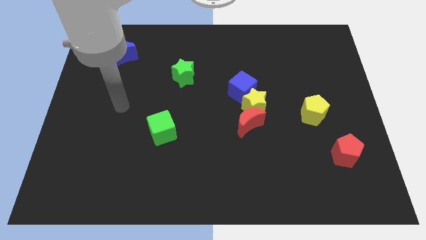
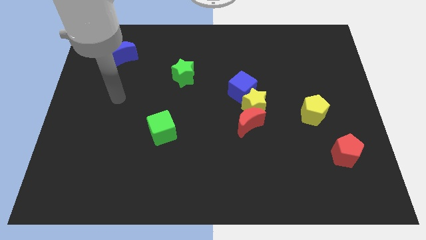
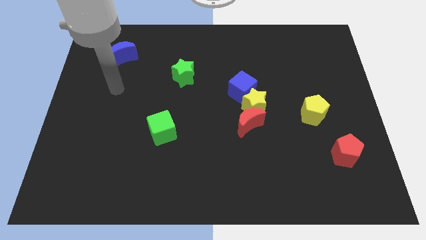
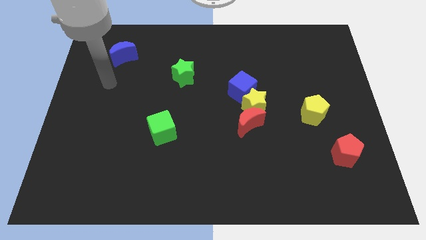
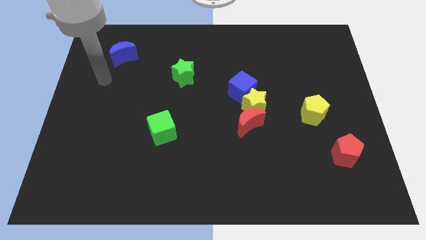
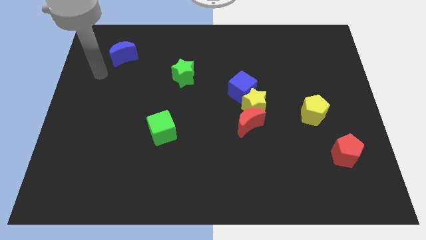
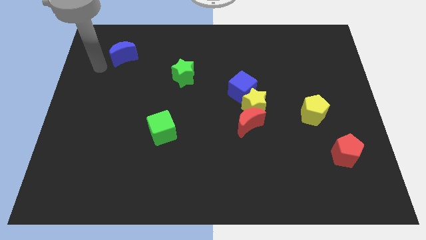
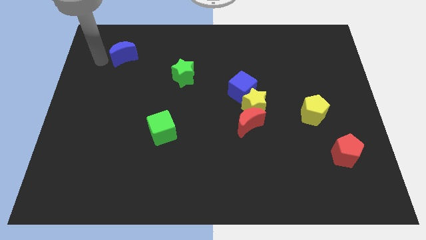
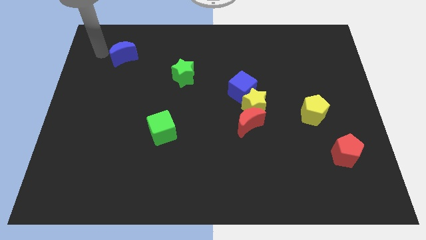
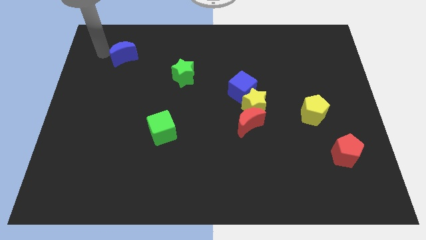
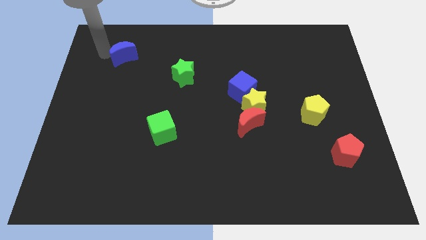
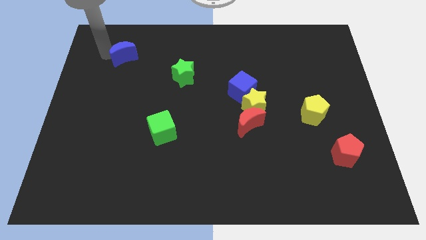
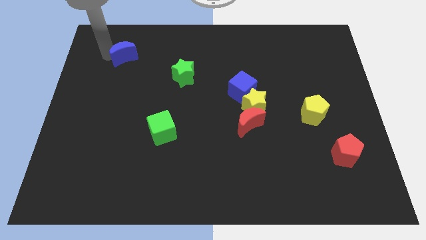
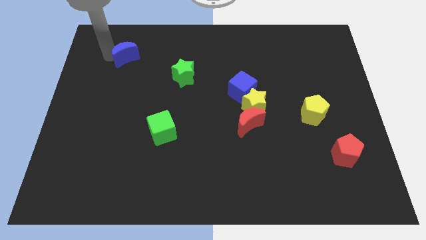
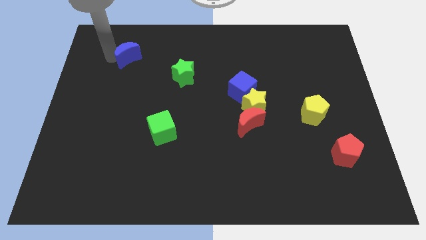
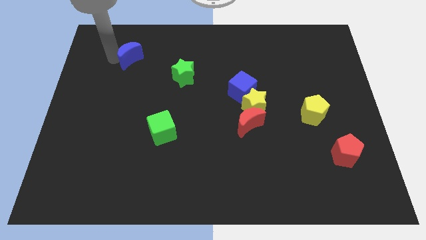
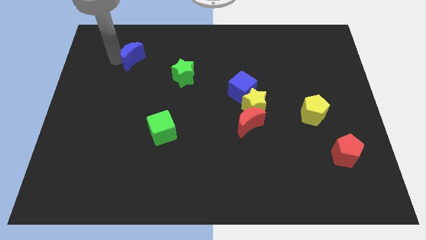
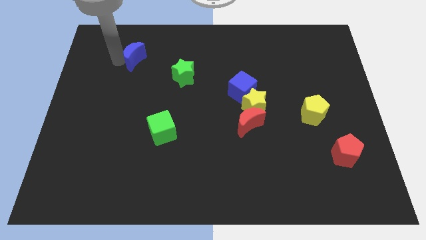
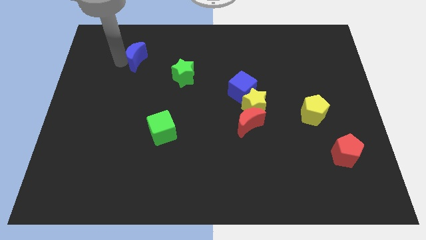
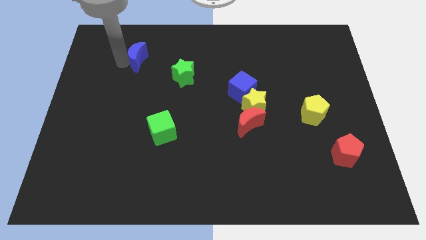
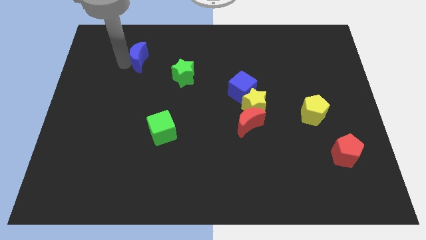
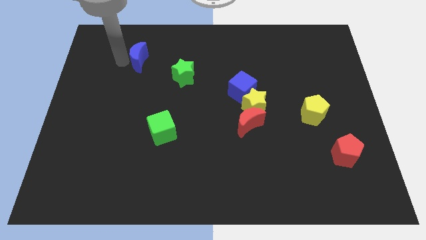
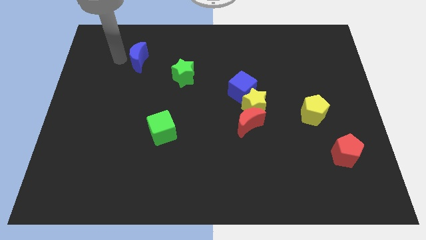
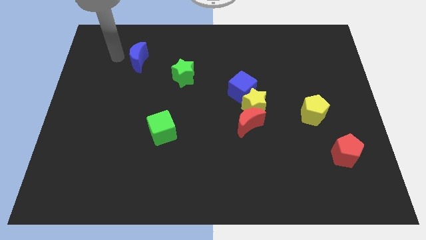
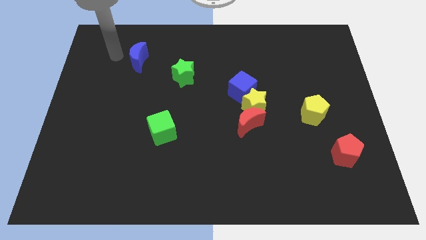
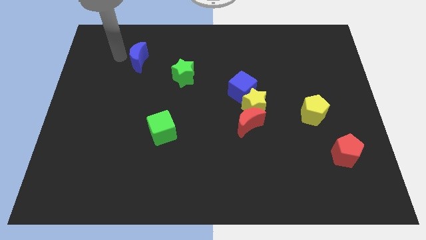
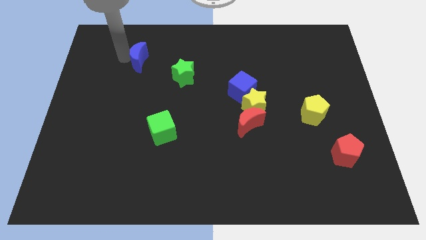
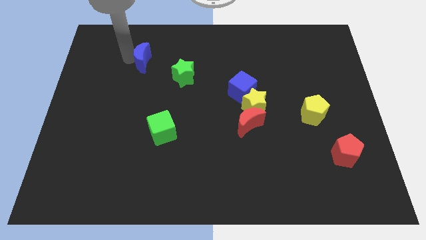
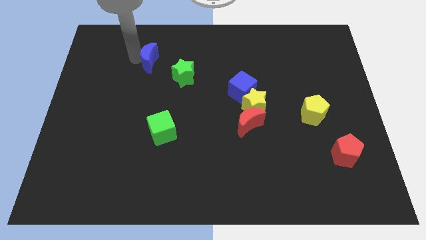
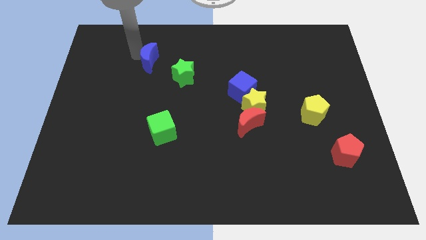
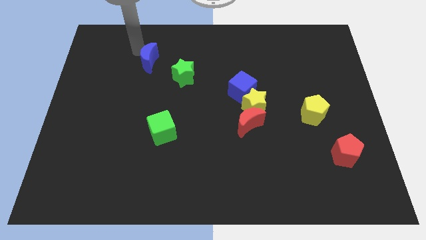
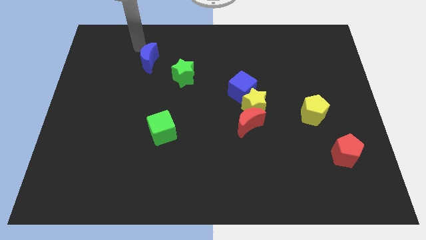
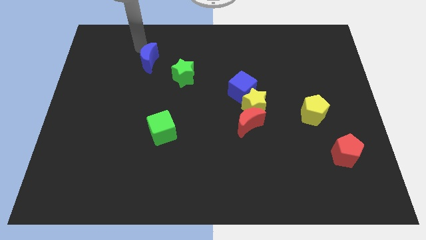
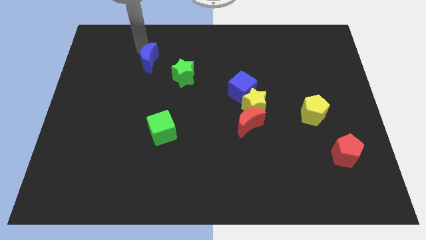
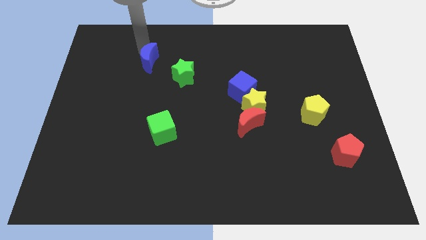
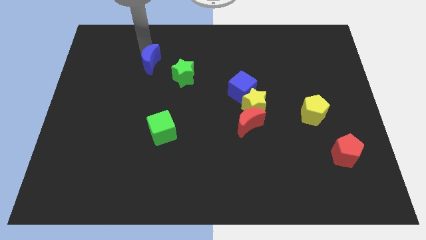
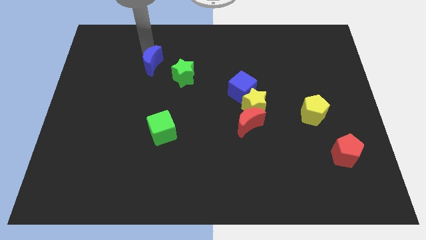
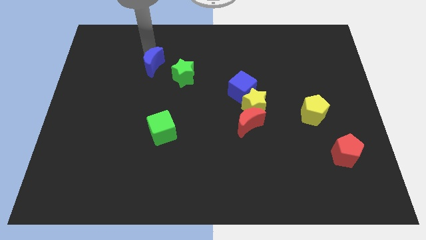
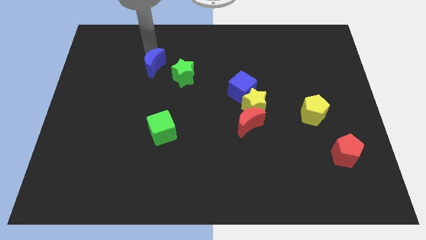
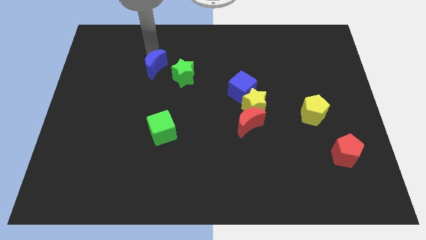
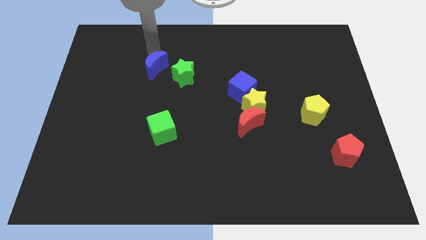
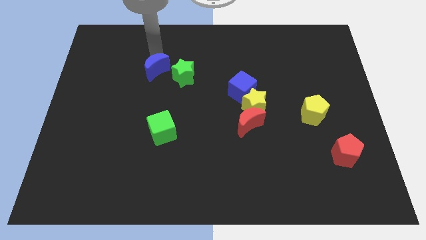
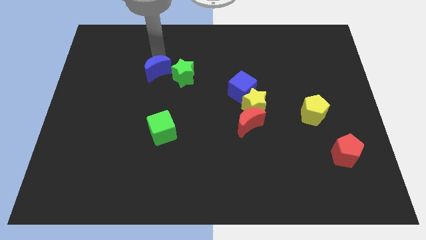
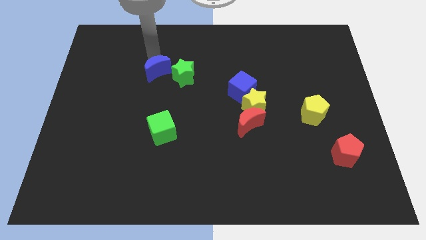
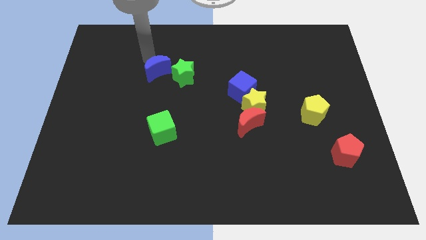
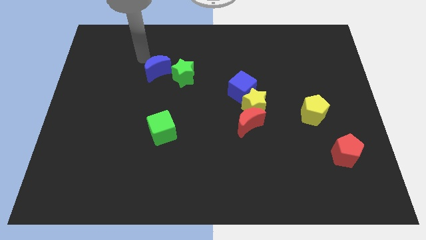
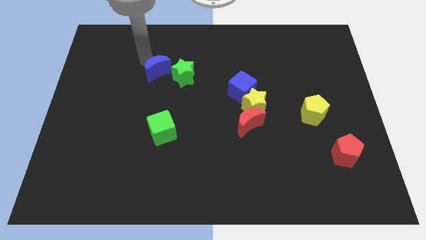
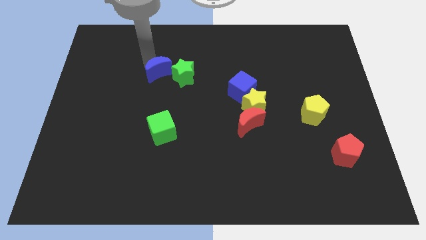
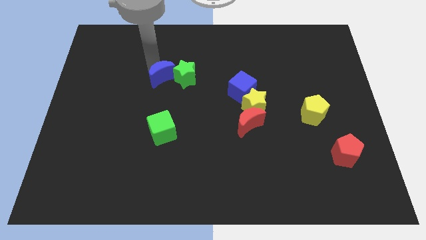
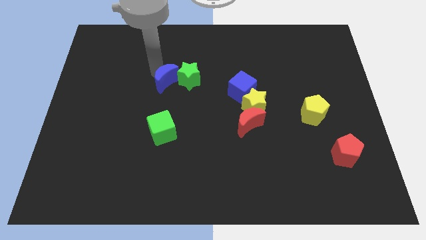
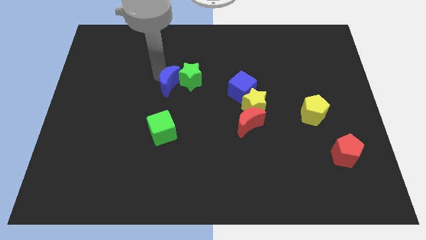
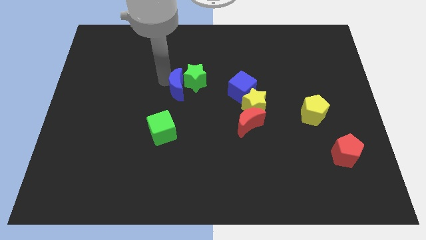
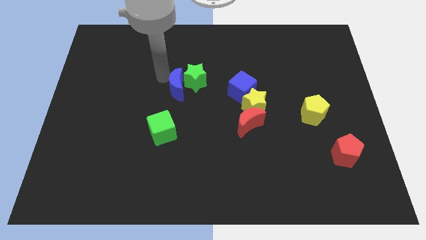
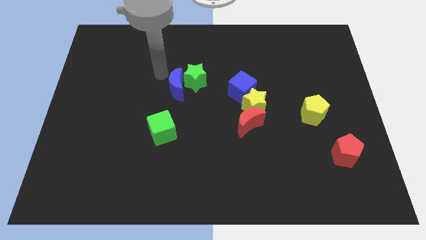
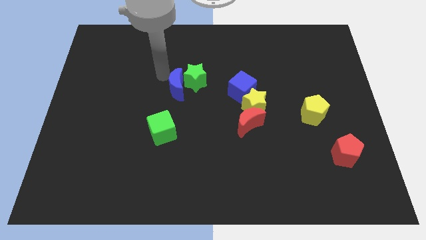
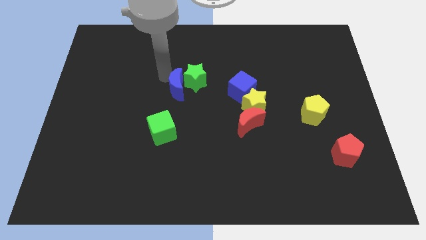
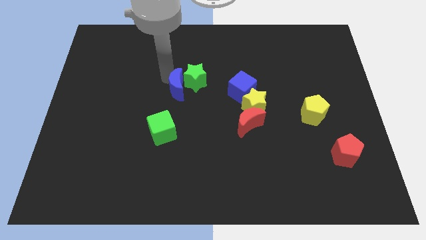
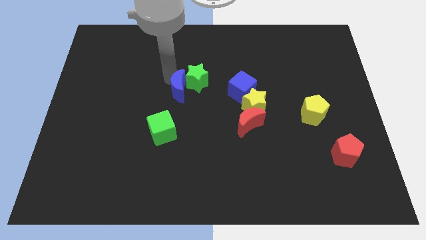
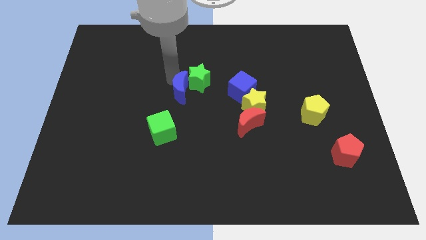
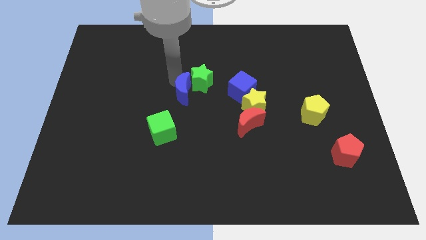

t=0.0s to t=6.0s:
push the blue moon down and to the right

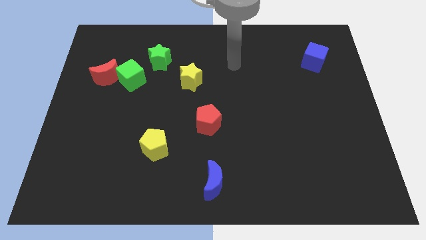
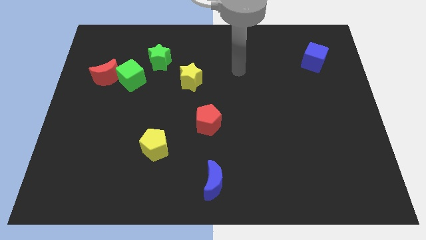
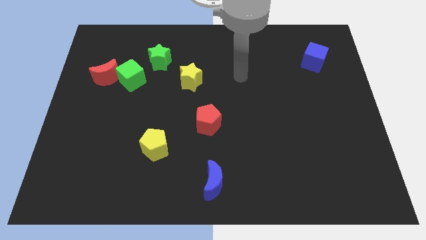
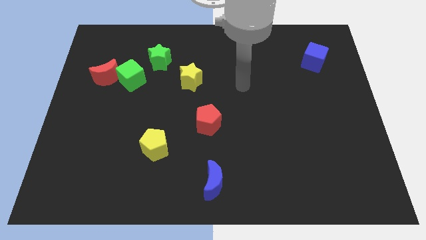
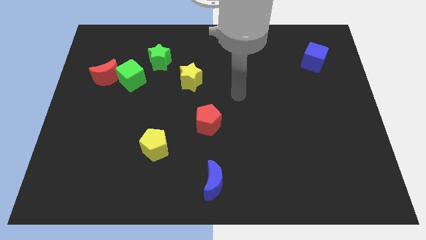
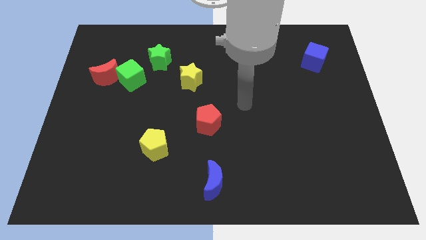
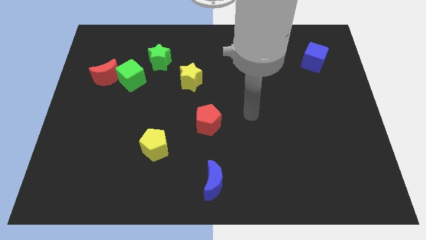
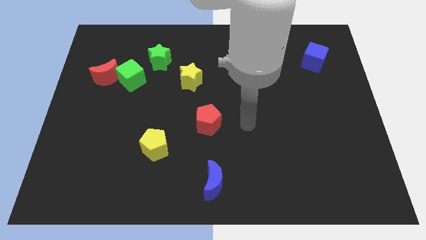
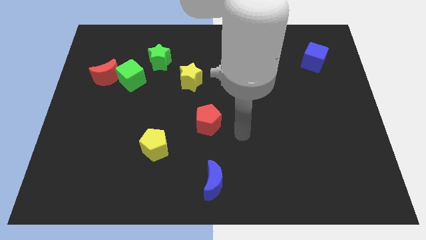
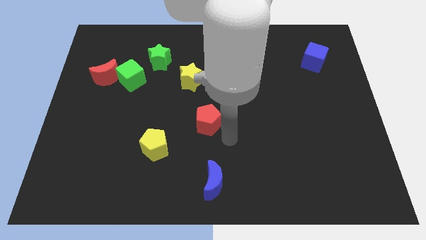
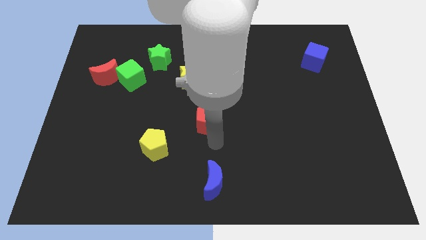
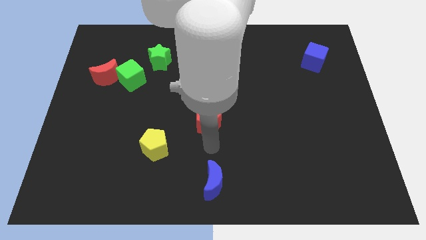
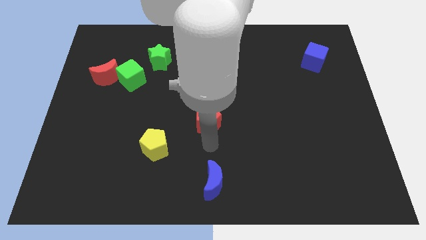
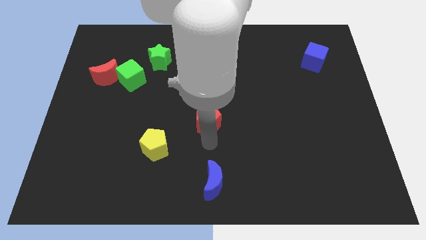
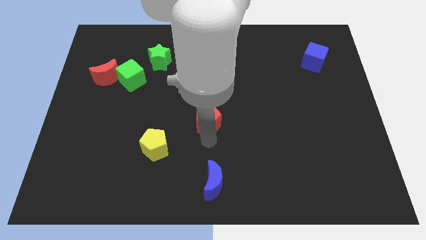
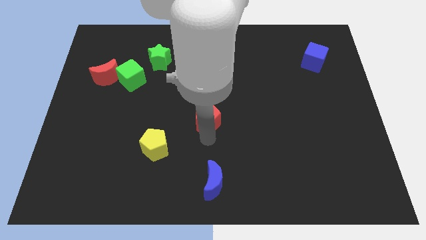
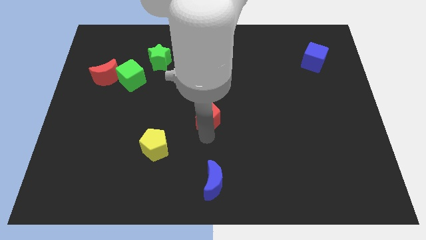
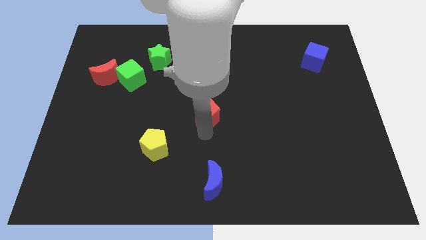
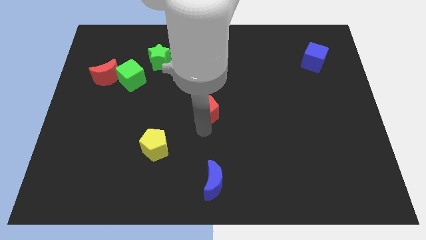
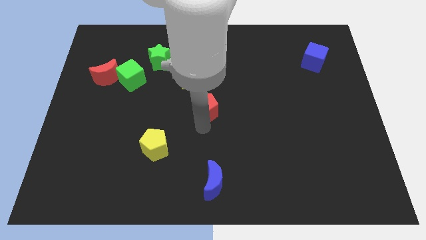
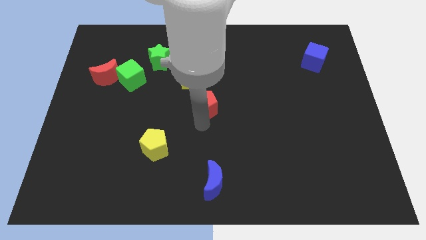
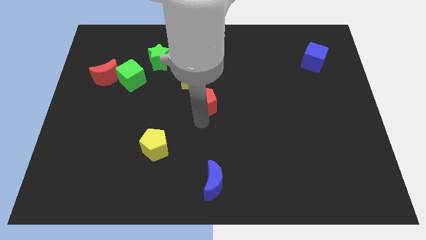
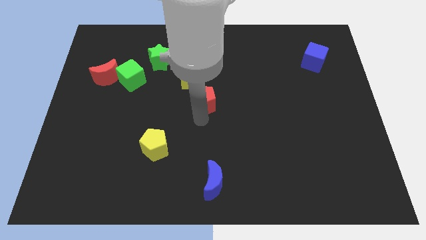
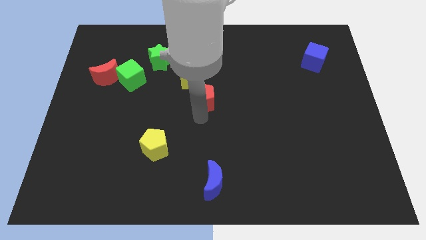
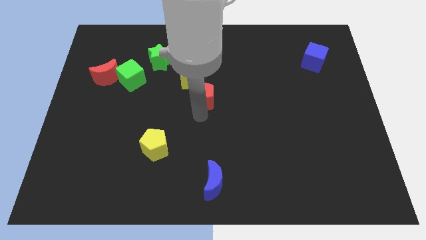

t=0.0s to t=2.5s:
slide the red pentagon a bit up
